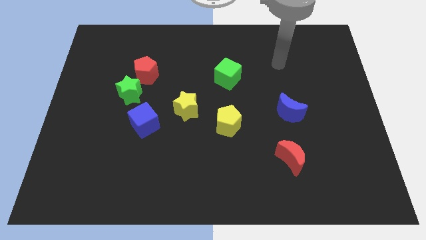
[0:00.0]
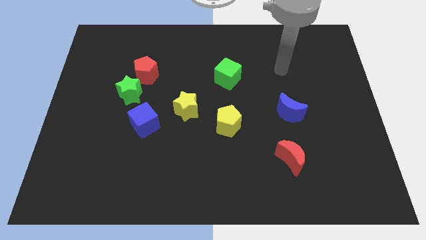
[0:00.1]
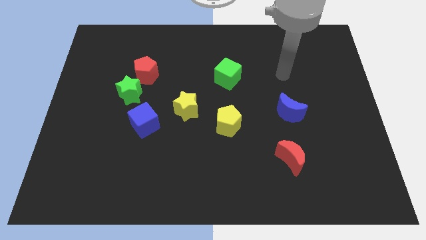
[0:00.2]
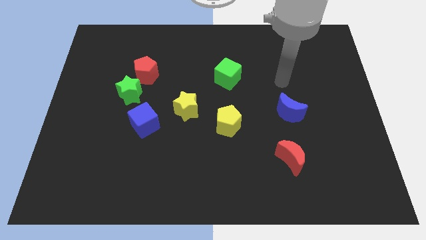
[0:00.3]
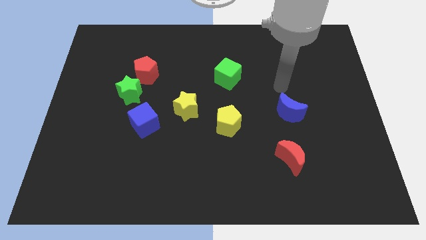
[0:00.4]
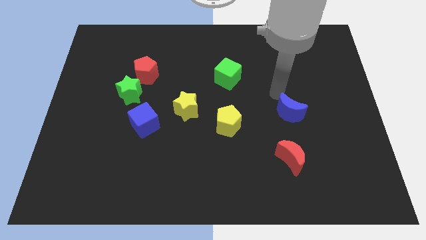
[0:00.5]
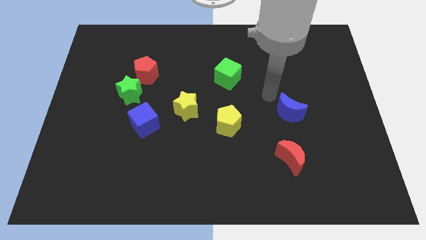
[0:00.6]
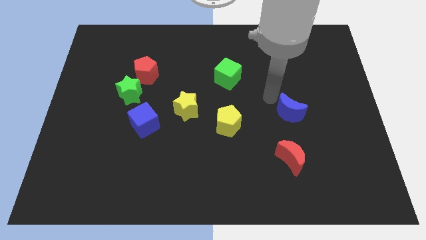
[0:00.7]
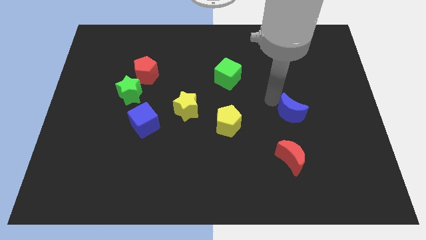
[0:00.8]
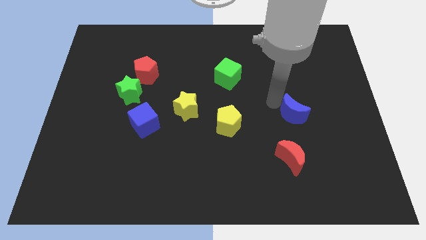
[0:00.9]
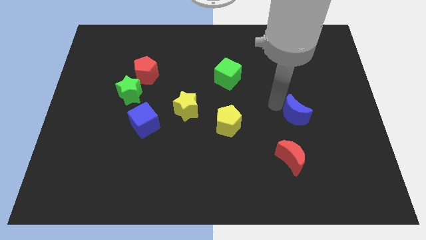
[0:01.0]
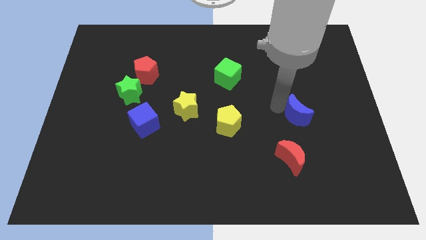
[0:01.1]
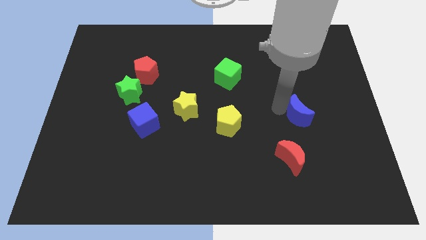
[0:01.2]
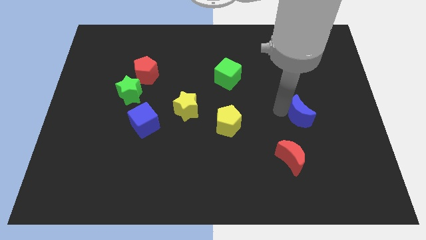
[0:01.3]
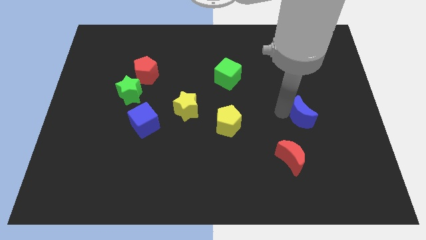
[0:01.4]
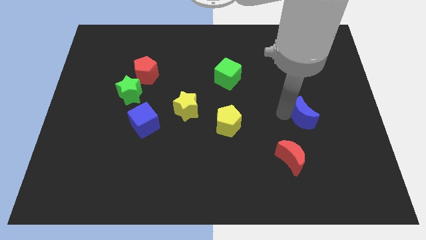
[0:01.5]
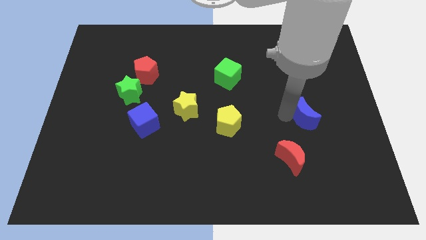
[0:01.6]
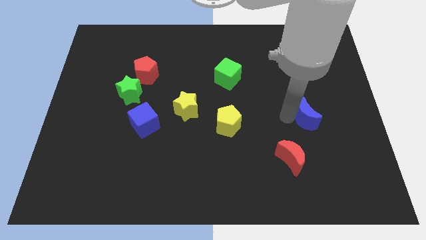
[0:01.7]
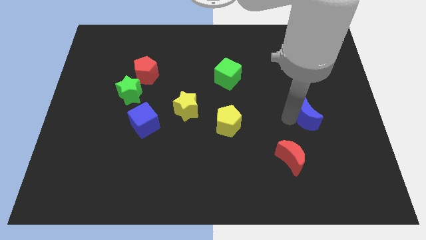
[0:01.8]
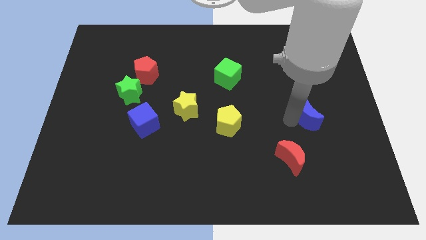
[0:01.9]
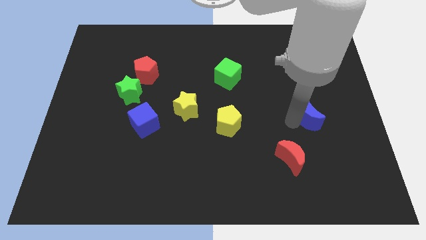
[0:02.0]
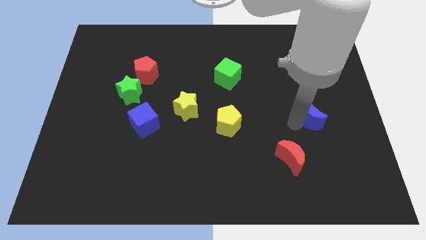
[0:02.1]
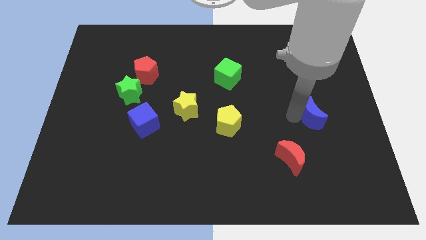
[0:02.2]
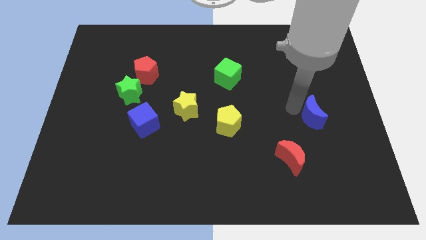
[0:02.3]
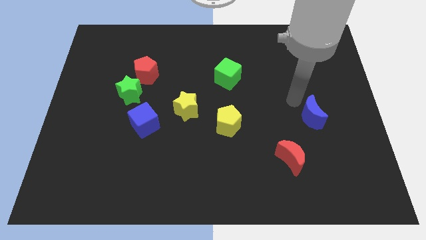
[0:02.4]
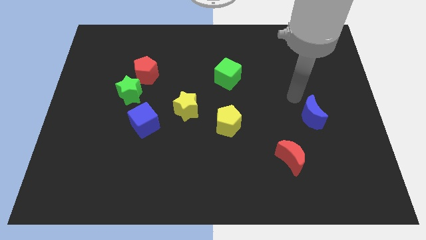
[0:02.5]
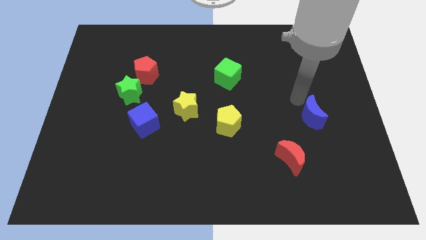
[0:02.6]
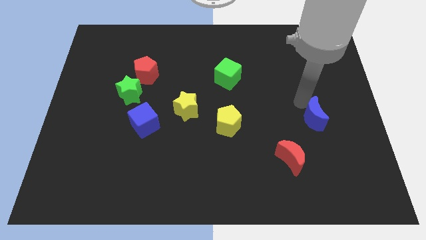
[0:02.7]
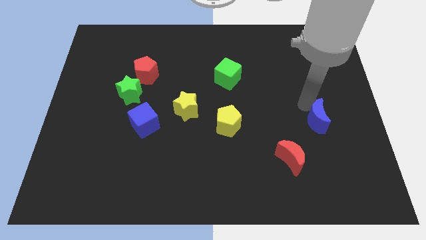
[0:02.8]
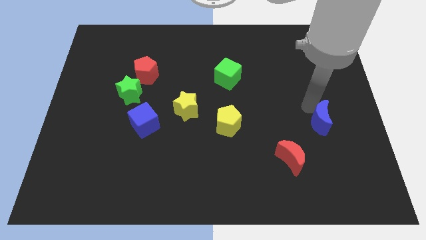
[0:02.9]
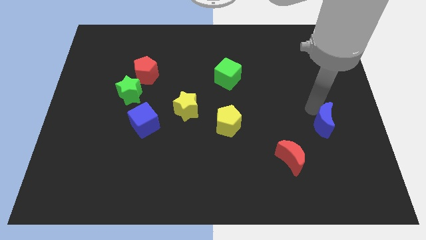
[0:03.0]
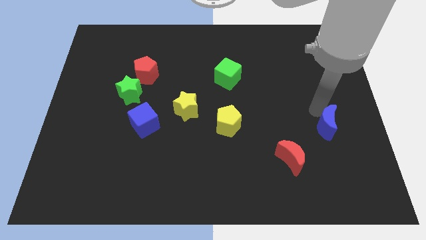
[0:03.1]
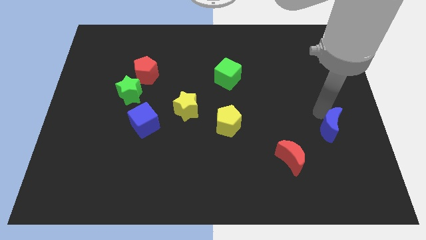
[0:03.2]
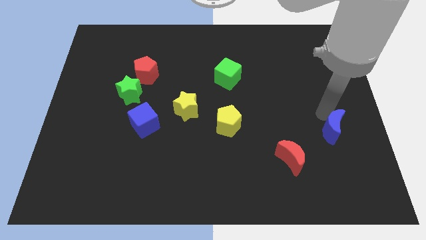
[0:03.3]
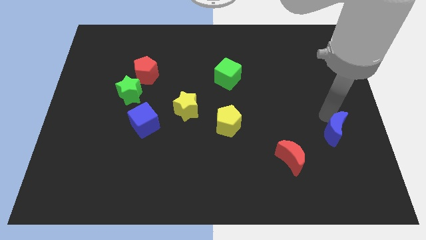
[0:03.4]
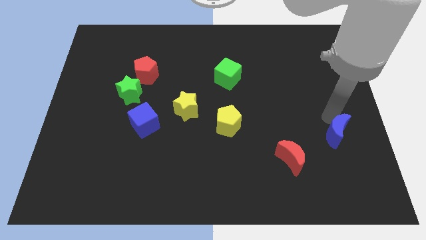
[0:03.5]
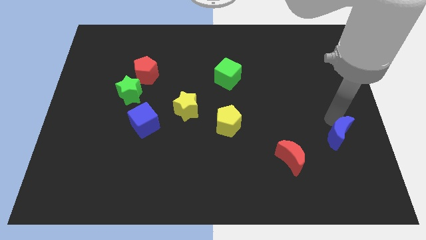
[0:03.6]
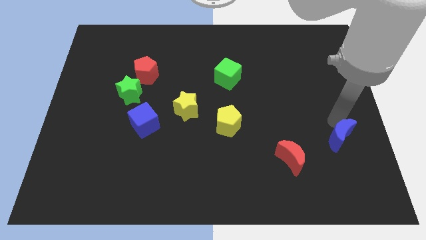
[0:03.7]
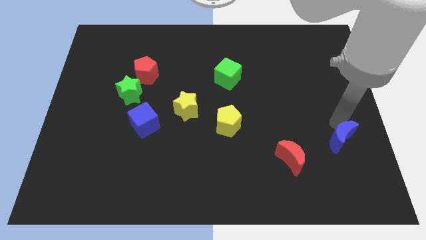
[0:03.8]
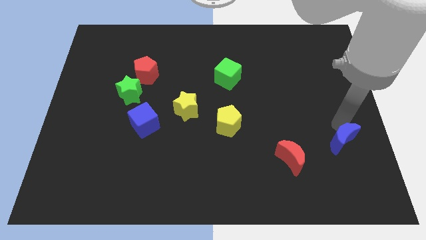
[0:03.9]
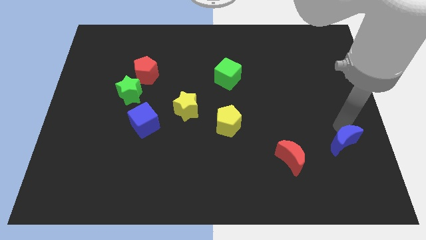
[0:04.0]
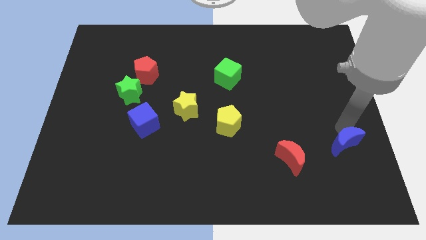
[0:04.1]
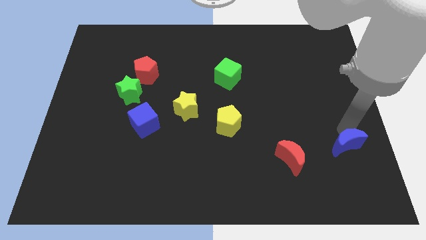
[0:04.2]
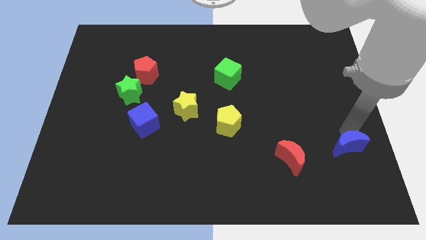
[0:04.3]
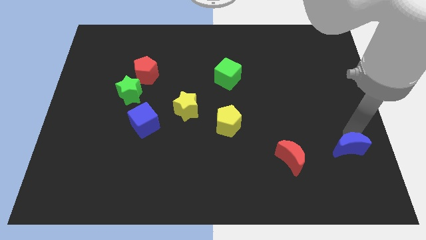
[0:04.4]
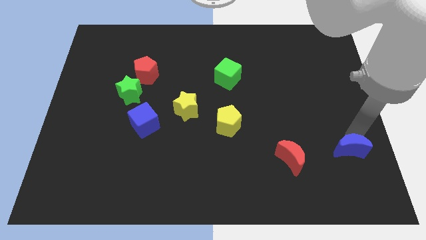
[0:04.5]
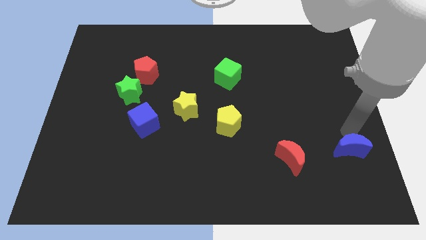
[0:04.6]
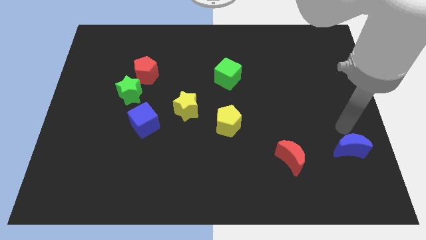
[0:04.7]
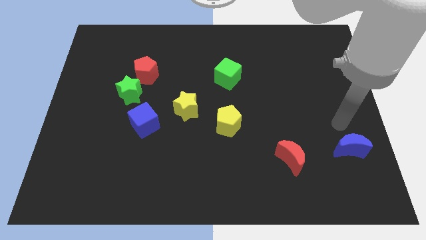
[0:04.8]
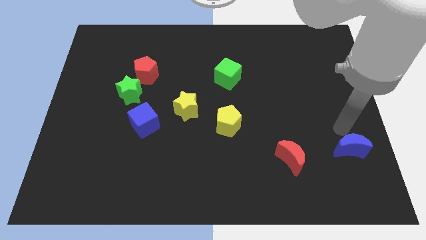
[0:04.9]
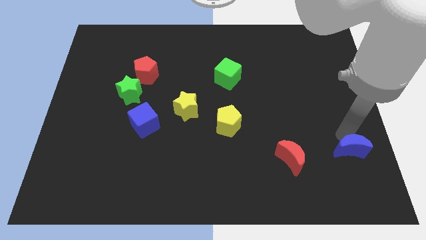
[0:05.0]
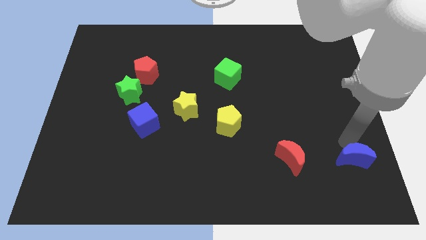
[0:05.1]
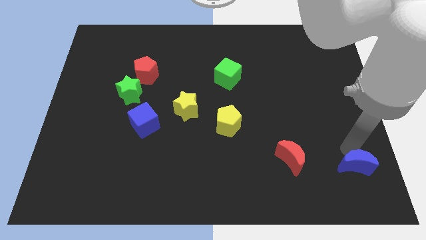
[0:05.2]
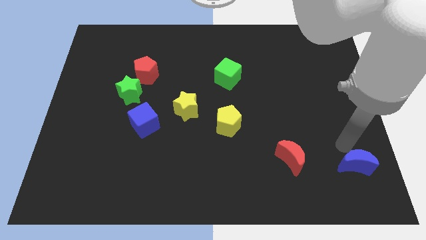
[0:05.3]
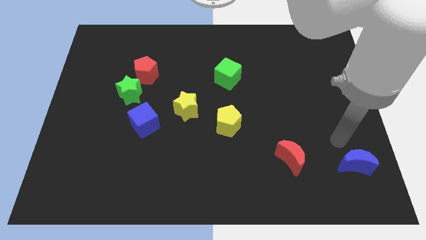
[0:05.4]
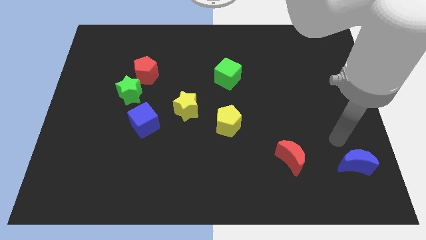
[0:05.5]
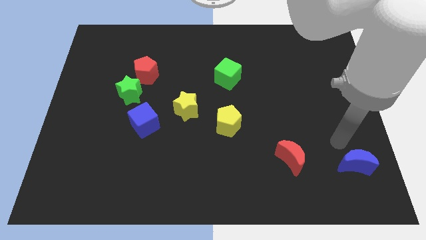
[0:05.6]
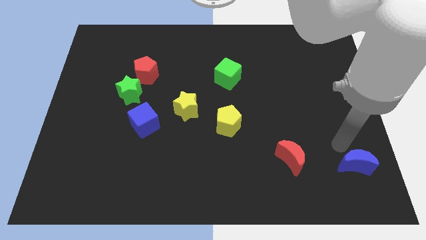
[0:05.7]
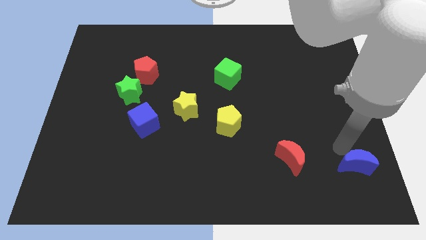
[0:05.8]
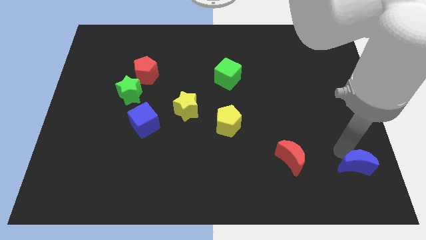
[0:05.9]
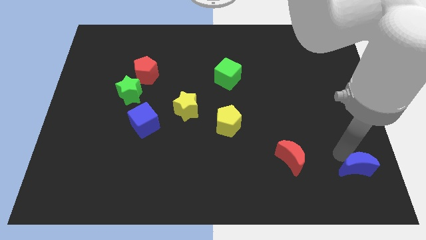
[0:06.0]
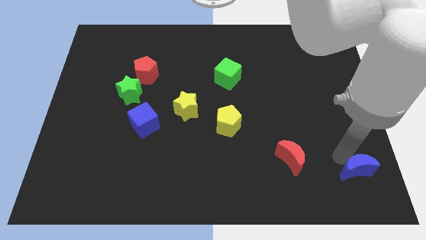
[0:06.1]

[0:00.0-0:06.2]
slide the blue moon to the bottom right corner
